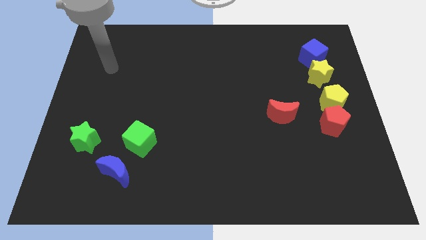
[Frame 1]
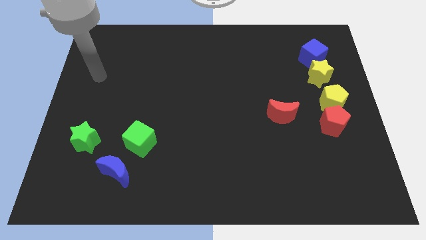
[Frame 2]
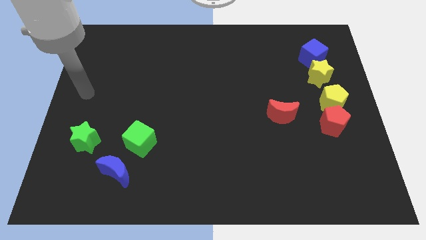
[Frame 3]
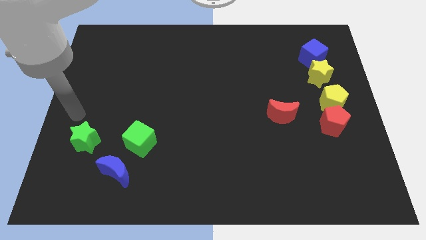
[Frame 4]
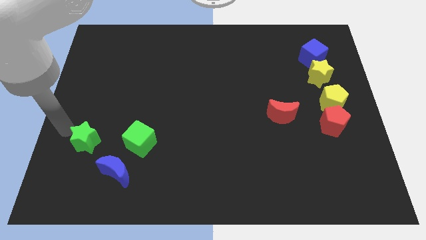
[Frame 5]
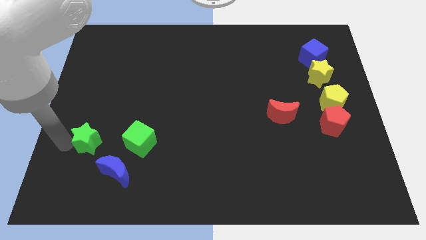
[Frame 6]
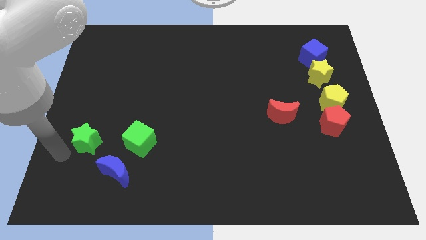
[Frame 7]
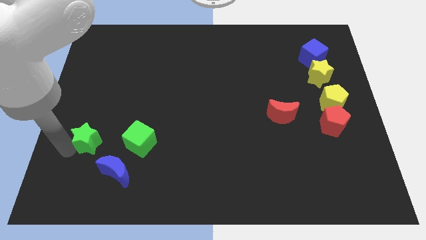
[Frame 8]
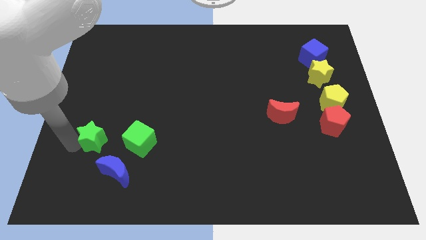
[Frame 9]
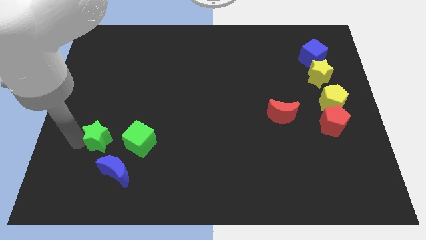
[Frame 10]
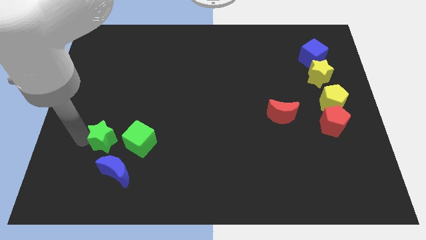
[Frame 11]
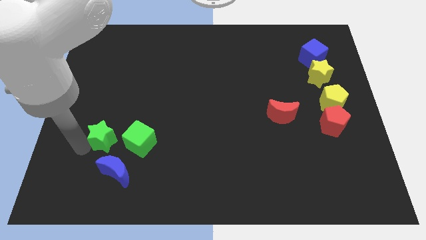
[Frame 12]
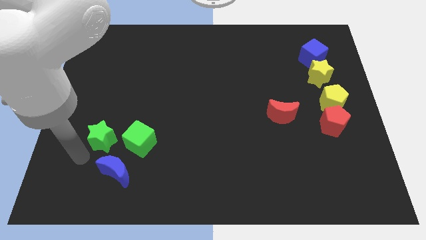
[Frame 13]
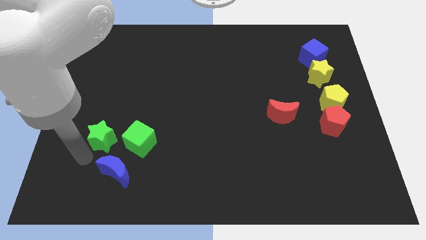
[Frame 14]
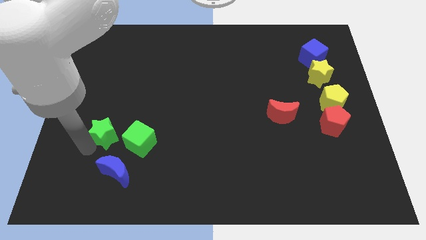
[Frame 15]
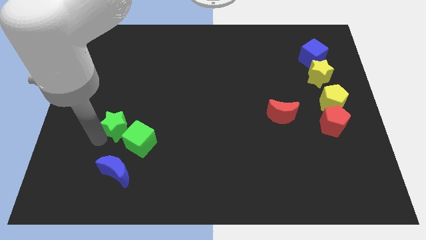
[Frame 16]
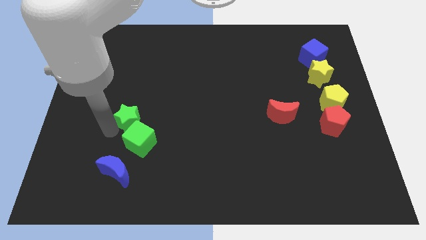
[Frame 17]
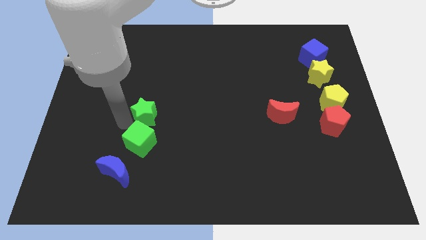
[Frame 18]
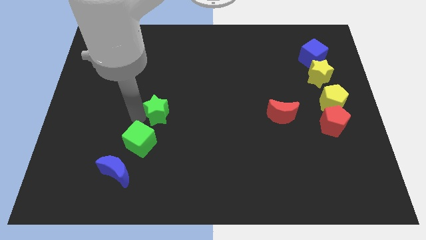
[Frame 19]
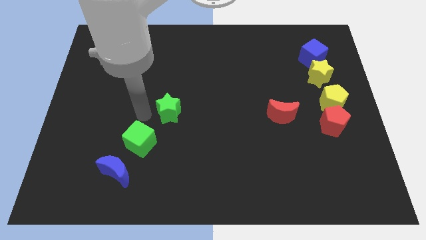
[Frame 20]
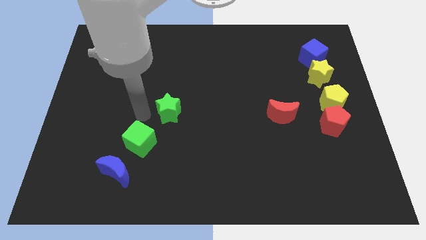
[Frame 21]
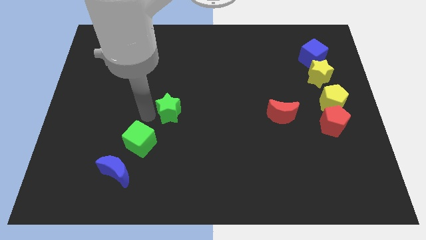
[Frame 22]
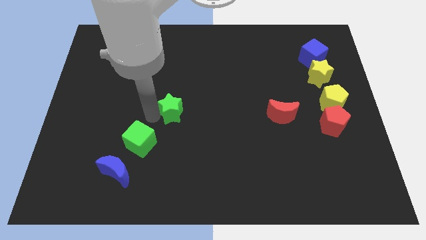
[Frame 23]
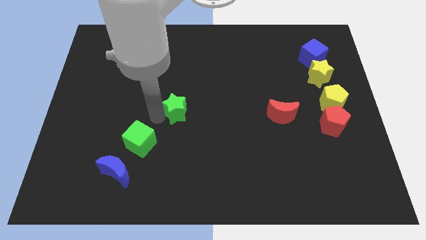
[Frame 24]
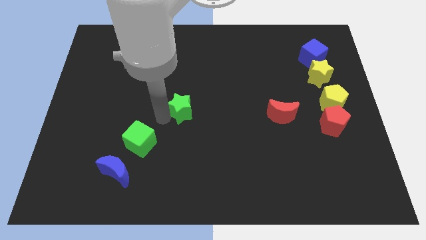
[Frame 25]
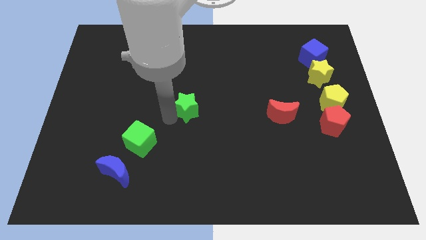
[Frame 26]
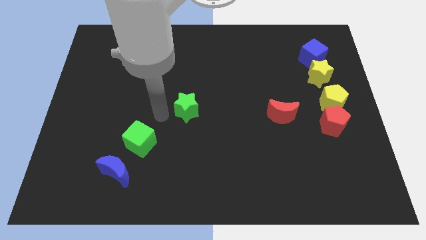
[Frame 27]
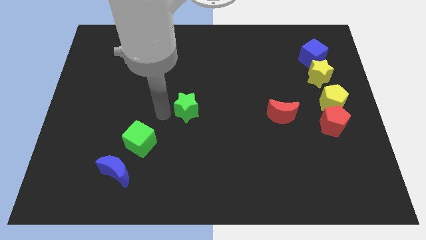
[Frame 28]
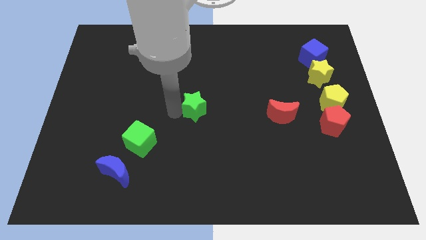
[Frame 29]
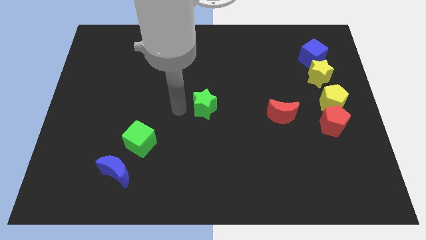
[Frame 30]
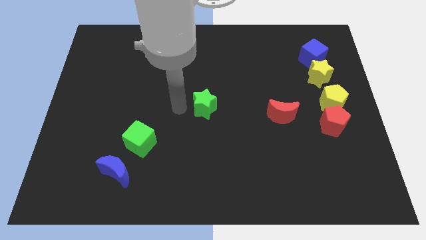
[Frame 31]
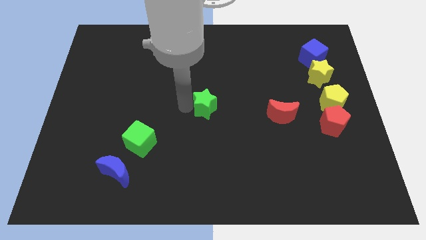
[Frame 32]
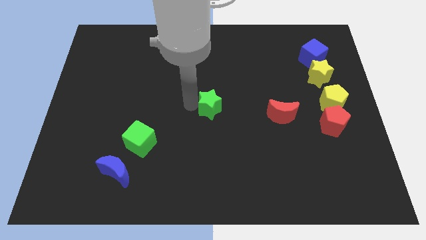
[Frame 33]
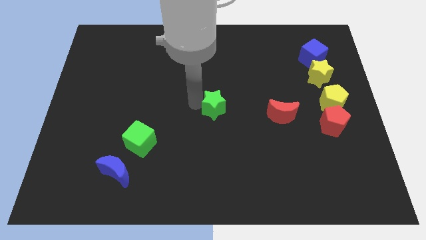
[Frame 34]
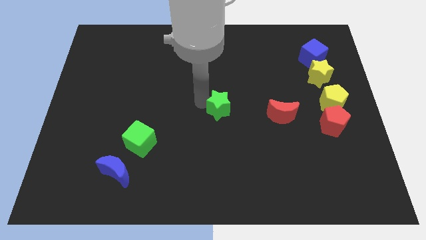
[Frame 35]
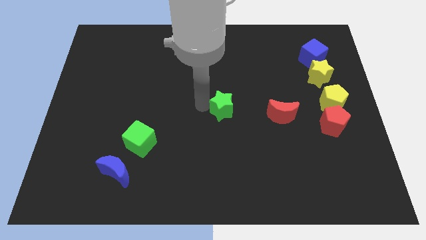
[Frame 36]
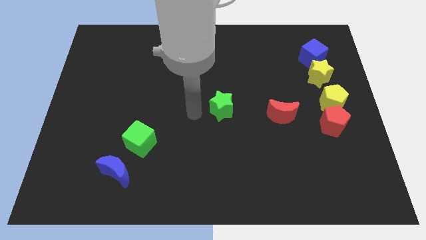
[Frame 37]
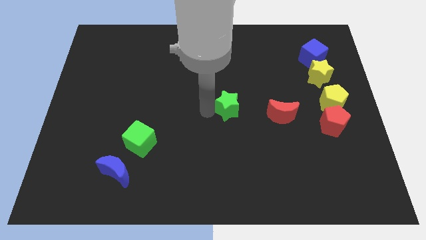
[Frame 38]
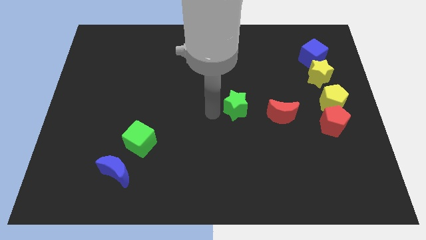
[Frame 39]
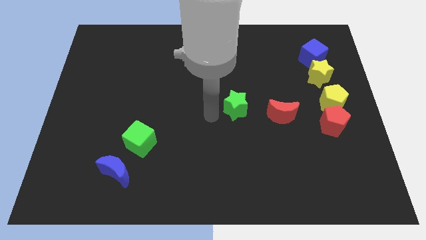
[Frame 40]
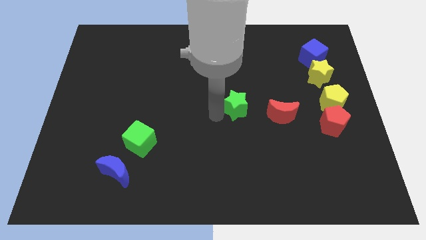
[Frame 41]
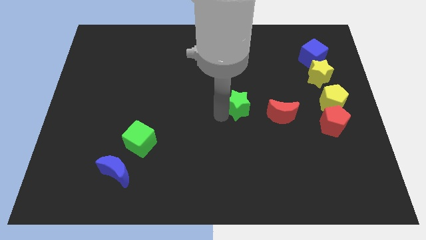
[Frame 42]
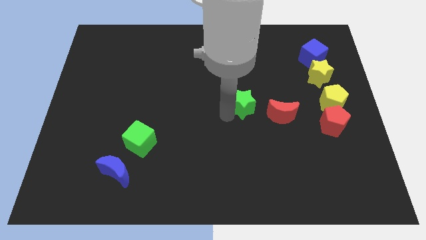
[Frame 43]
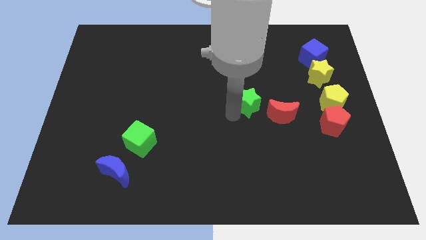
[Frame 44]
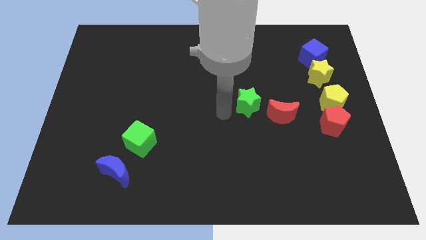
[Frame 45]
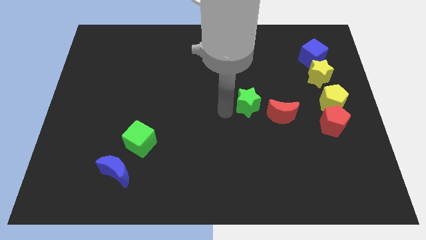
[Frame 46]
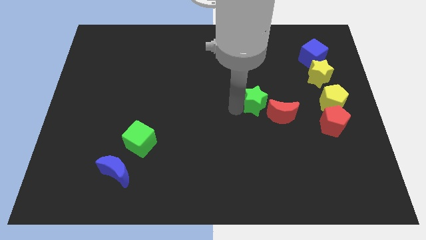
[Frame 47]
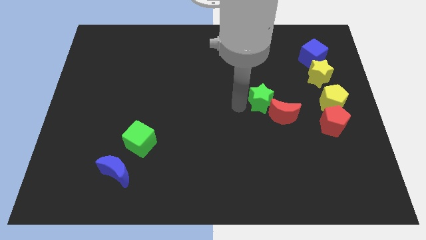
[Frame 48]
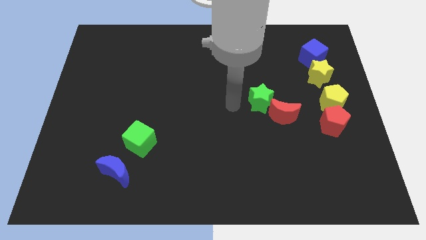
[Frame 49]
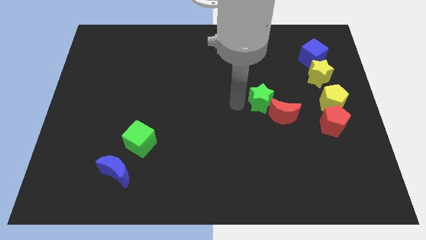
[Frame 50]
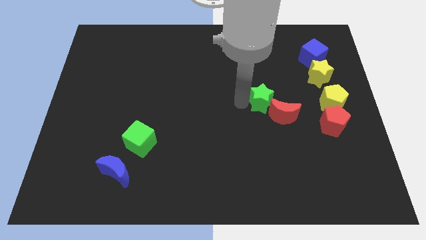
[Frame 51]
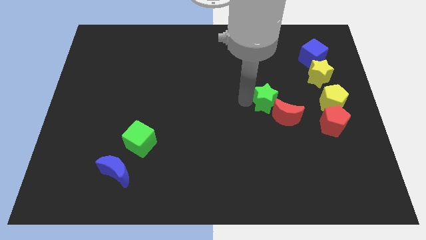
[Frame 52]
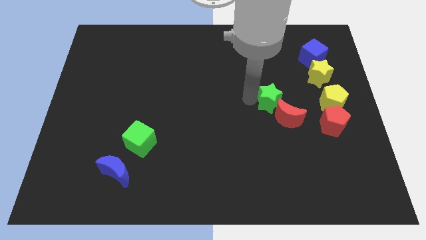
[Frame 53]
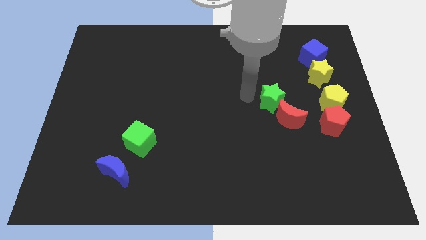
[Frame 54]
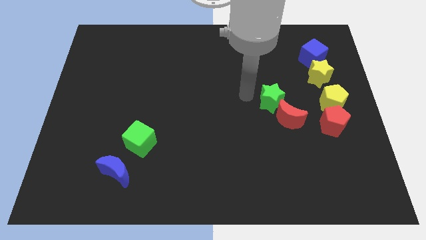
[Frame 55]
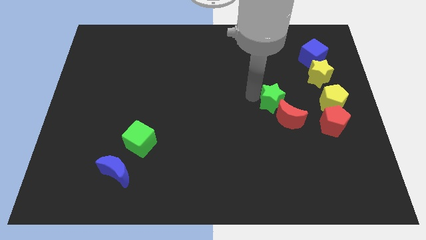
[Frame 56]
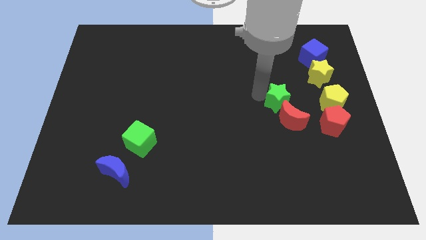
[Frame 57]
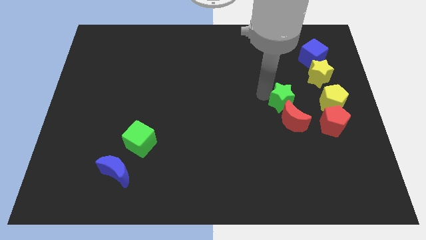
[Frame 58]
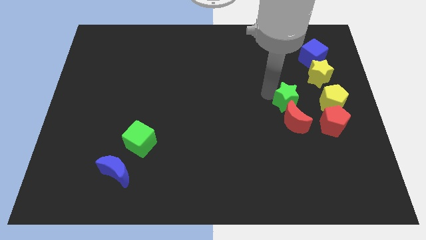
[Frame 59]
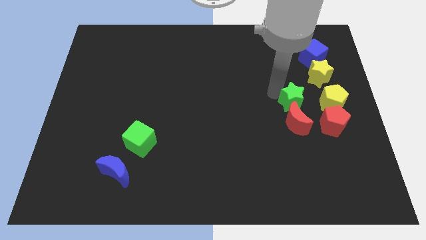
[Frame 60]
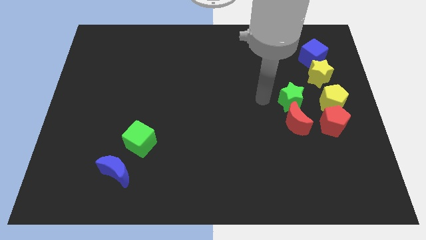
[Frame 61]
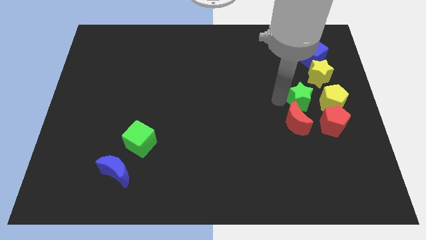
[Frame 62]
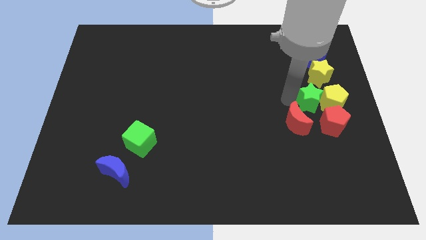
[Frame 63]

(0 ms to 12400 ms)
put the green star towards the yellow pentagon
